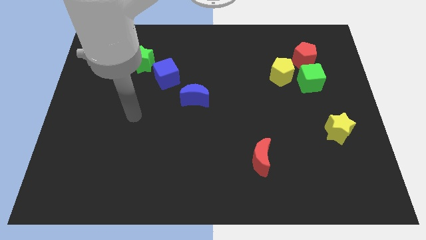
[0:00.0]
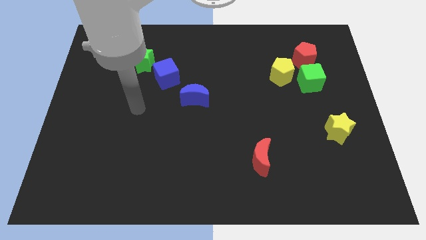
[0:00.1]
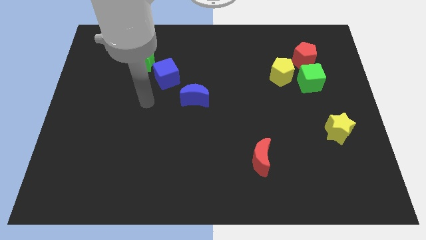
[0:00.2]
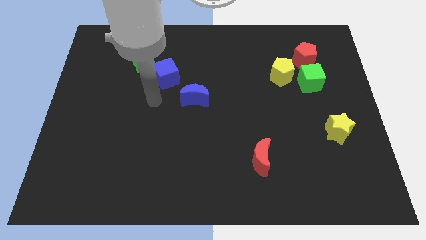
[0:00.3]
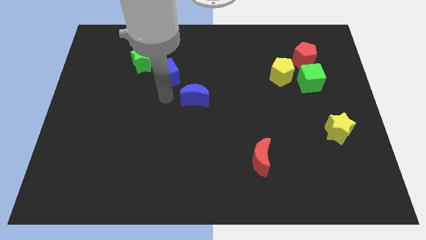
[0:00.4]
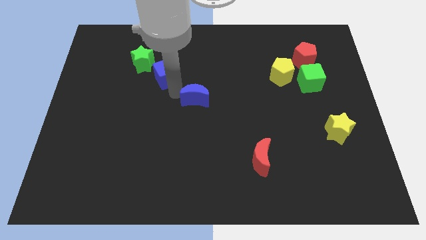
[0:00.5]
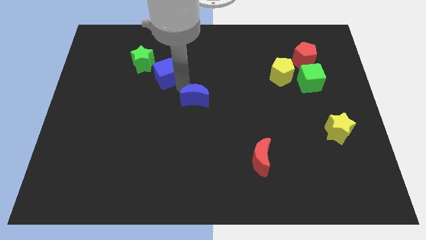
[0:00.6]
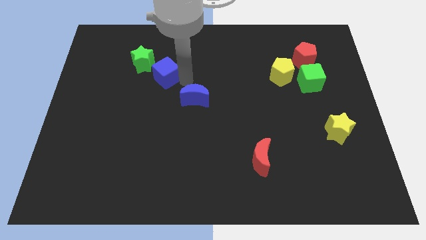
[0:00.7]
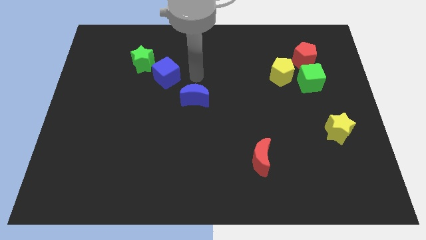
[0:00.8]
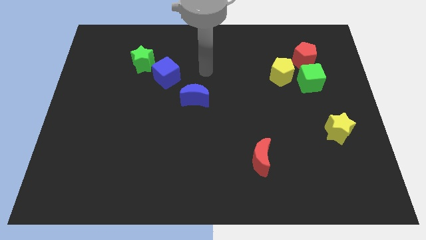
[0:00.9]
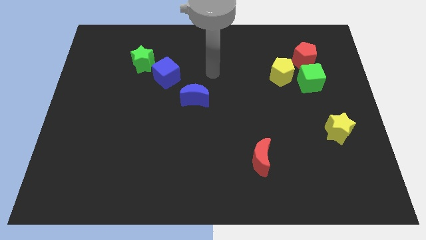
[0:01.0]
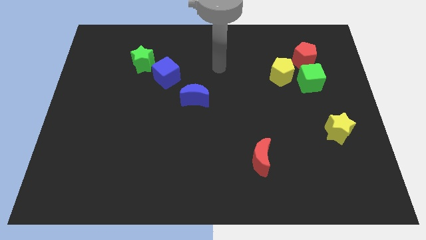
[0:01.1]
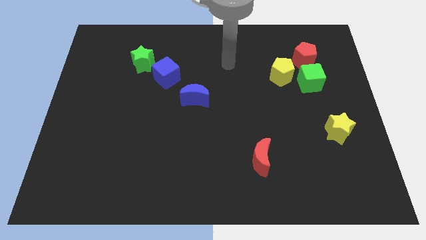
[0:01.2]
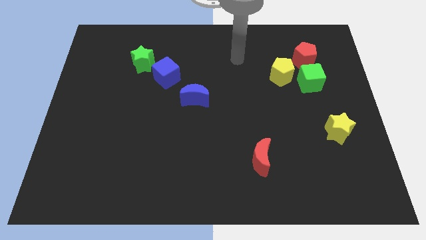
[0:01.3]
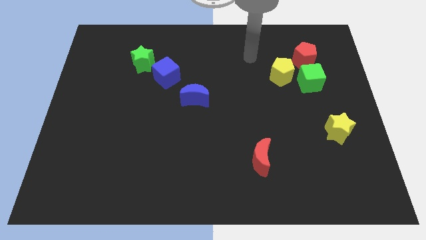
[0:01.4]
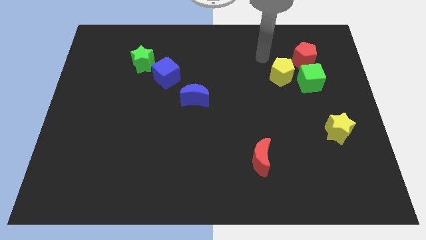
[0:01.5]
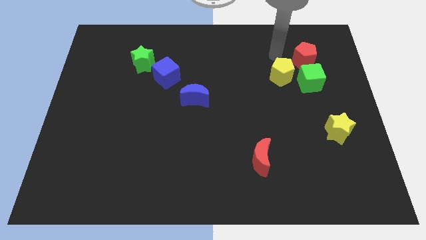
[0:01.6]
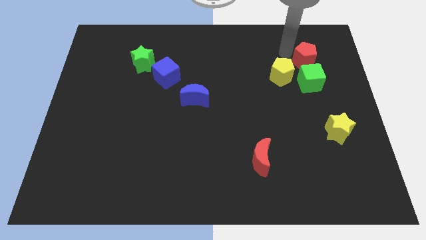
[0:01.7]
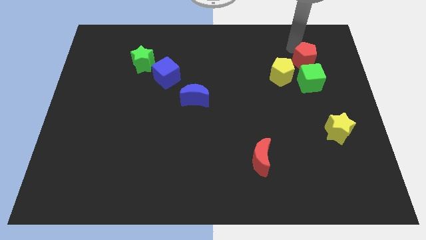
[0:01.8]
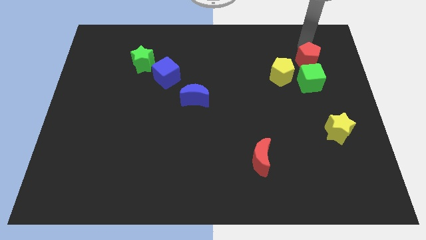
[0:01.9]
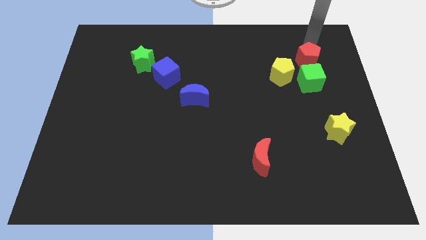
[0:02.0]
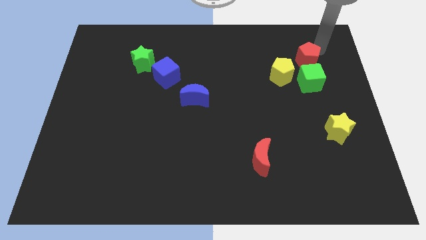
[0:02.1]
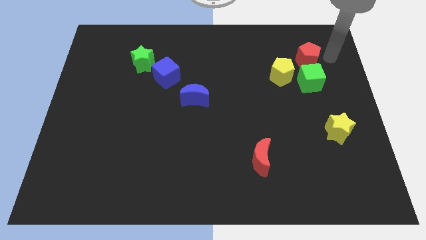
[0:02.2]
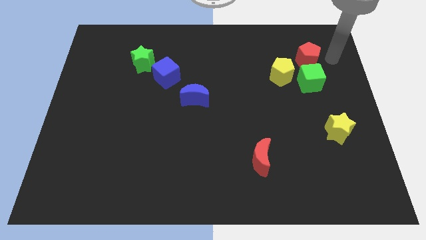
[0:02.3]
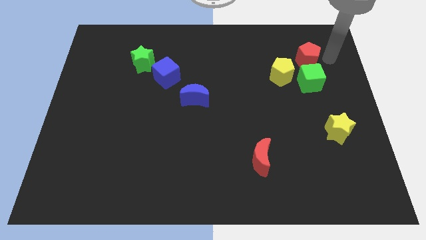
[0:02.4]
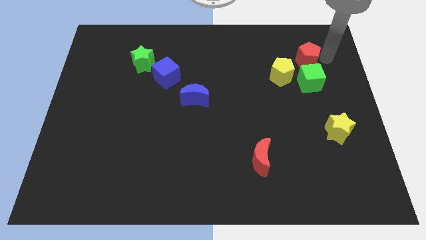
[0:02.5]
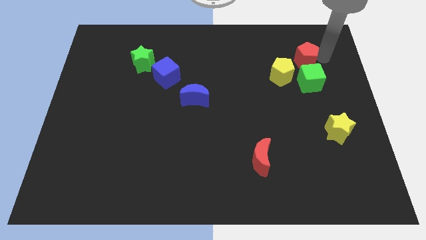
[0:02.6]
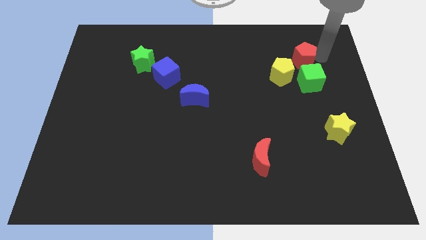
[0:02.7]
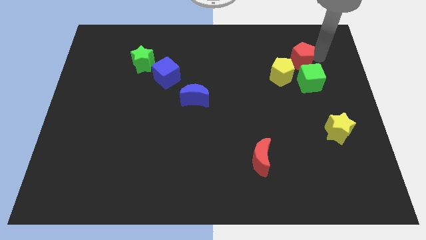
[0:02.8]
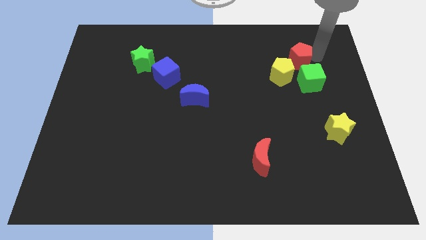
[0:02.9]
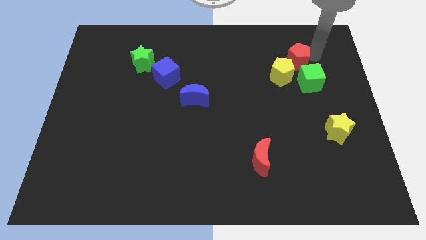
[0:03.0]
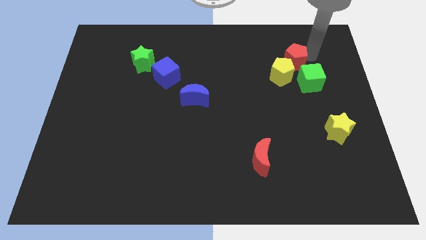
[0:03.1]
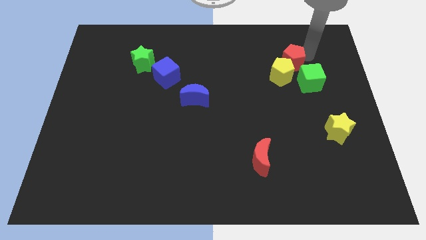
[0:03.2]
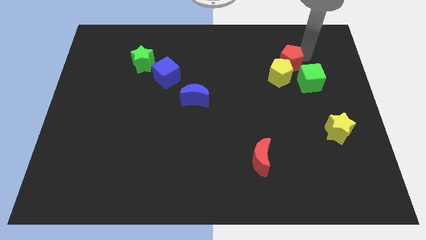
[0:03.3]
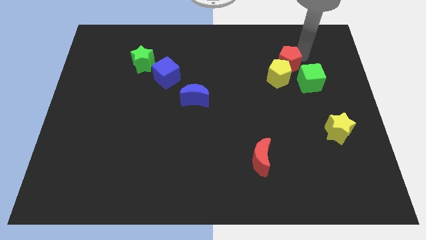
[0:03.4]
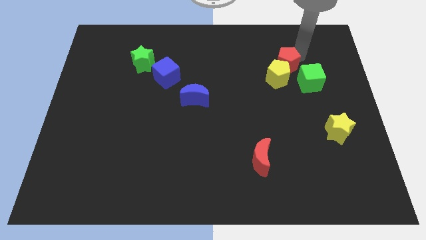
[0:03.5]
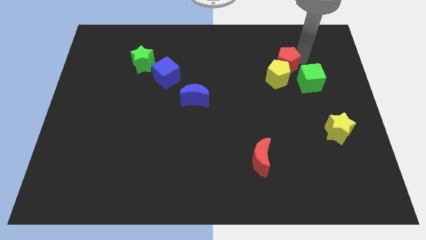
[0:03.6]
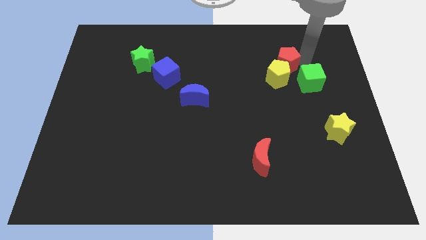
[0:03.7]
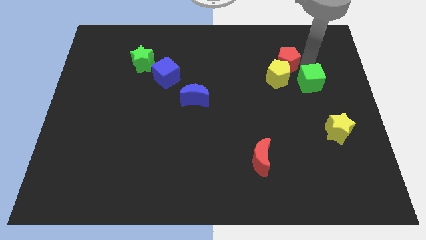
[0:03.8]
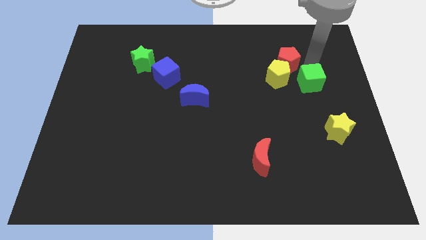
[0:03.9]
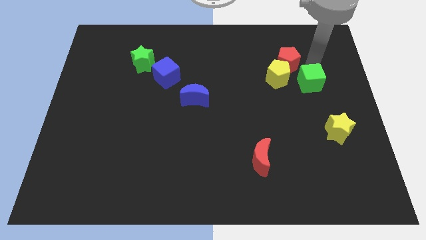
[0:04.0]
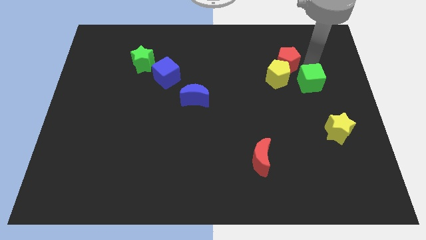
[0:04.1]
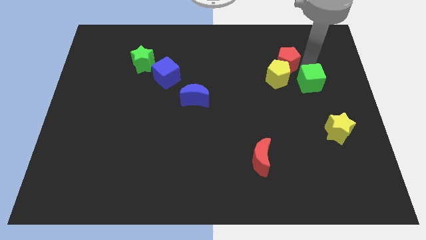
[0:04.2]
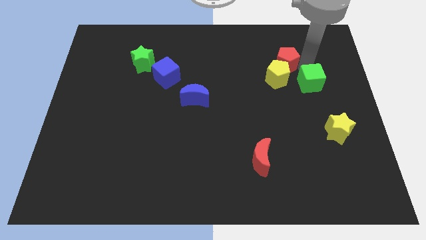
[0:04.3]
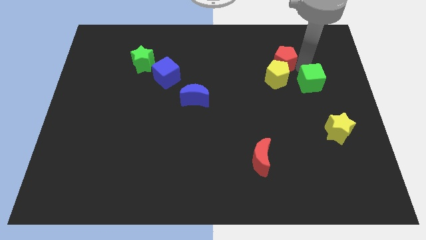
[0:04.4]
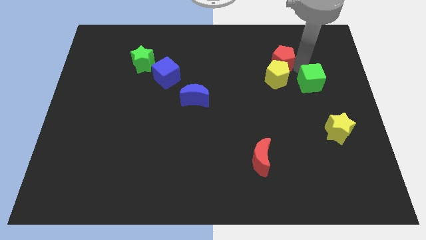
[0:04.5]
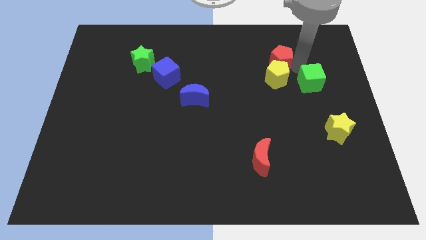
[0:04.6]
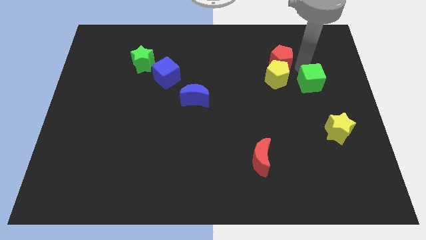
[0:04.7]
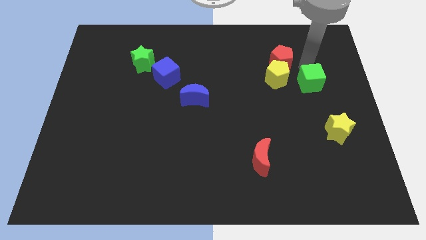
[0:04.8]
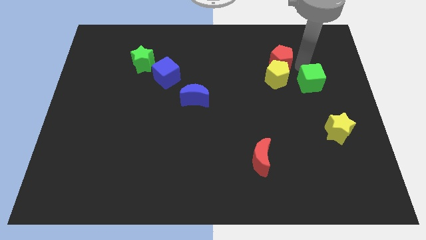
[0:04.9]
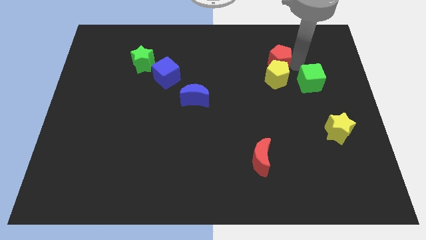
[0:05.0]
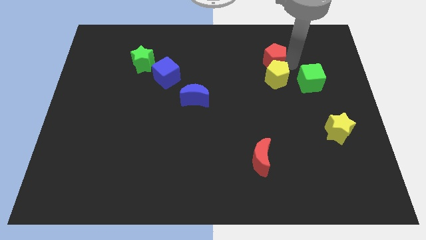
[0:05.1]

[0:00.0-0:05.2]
slightly move the red pentagon left

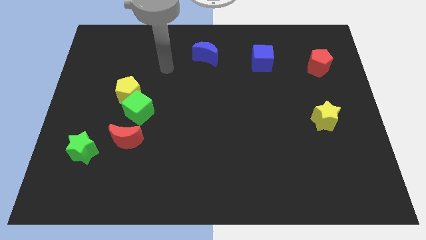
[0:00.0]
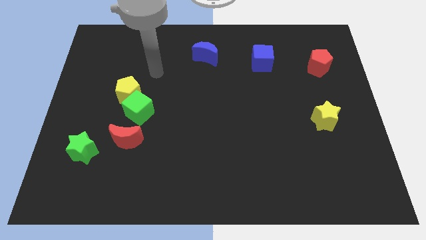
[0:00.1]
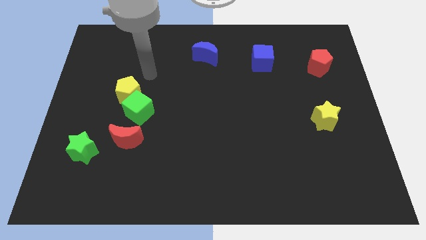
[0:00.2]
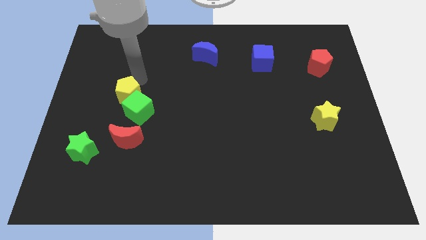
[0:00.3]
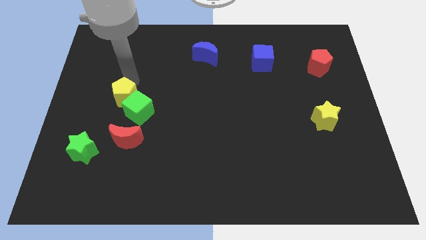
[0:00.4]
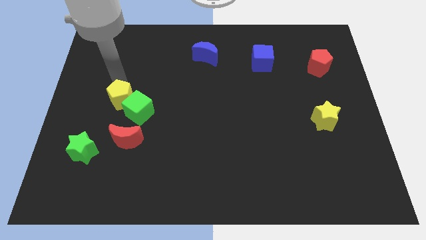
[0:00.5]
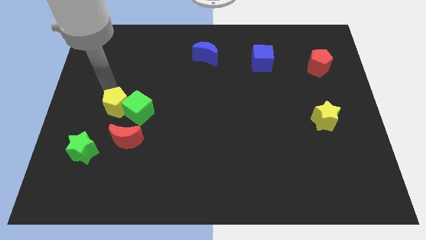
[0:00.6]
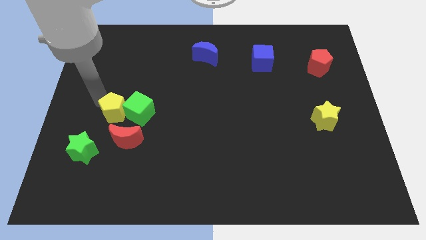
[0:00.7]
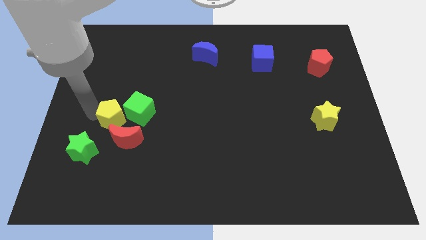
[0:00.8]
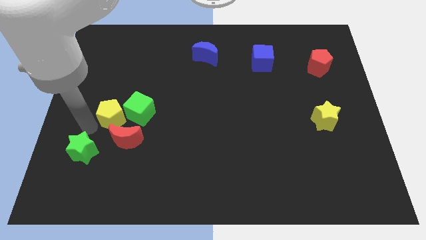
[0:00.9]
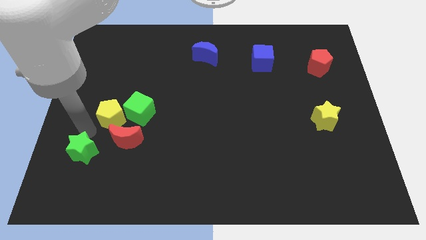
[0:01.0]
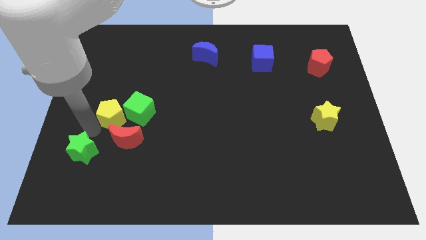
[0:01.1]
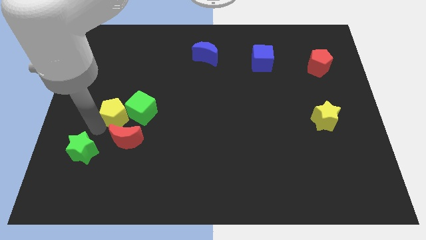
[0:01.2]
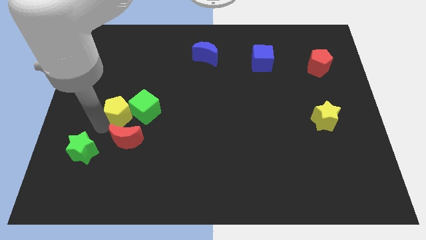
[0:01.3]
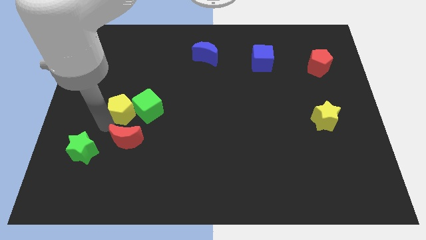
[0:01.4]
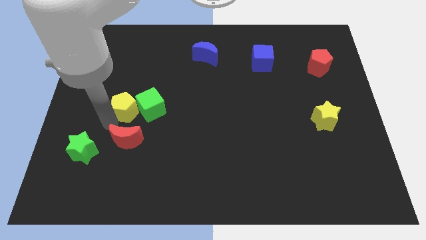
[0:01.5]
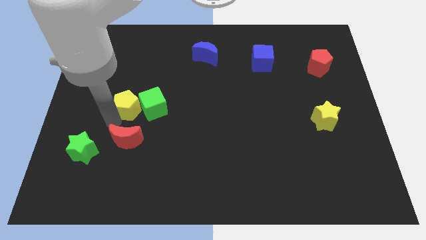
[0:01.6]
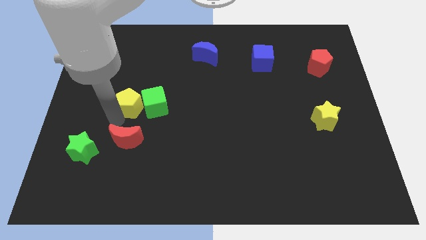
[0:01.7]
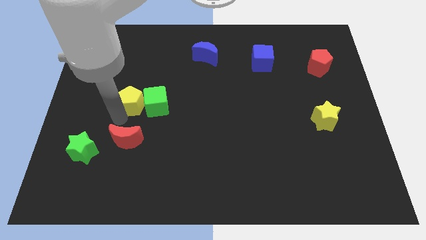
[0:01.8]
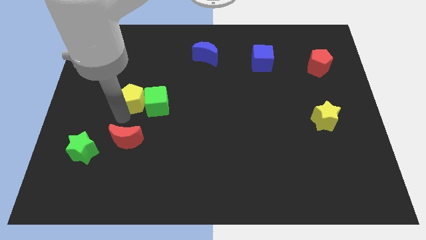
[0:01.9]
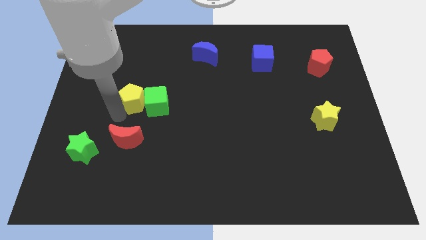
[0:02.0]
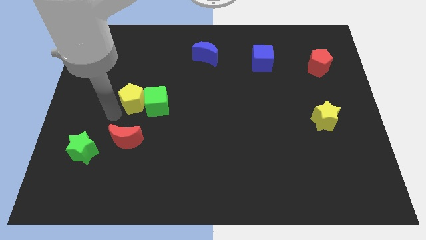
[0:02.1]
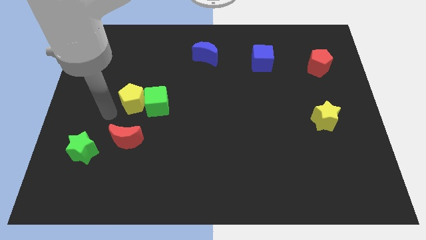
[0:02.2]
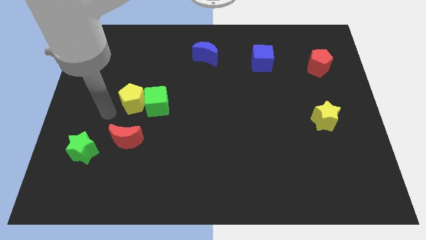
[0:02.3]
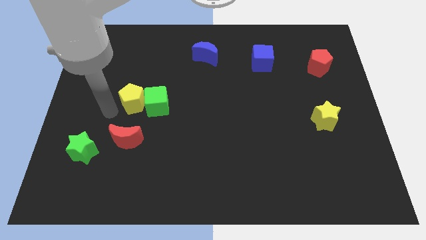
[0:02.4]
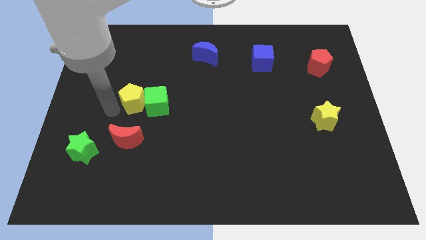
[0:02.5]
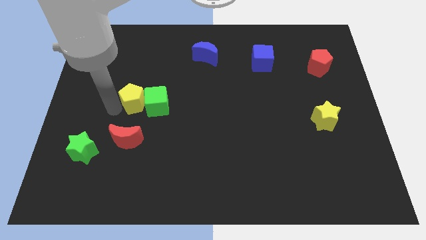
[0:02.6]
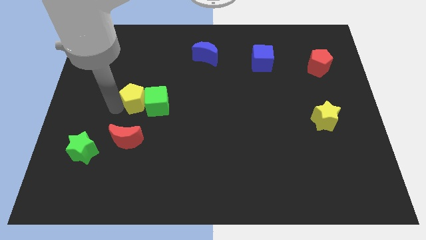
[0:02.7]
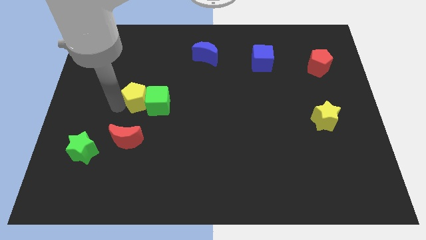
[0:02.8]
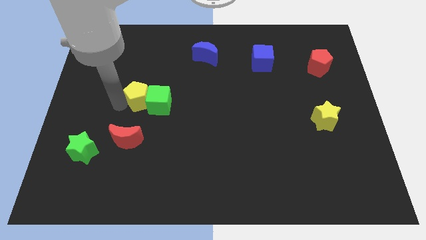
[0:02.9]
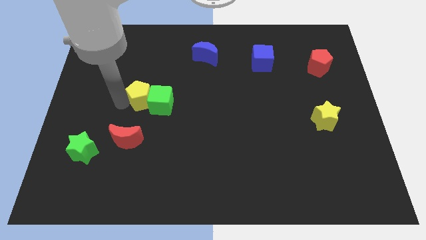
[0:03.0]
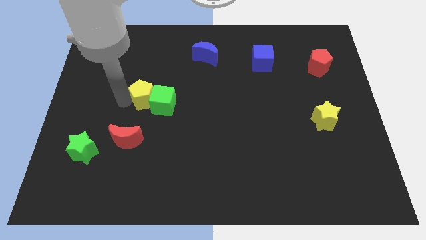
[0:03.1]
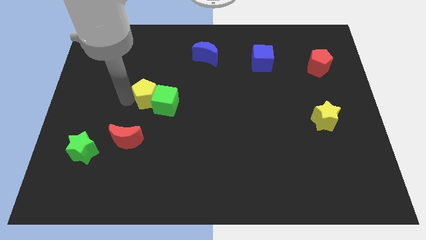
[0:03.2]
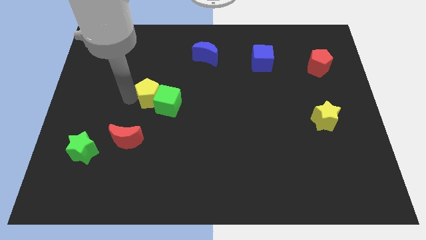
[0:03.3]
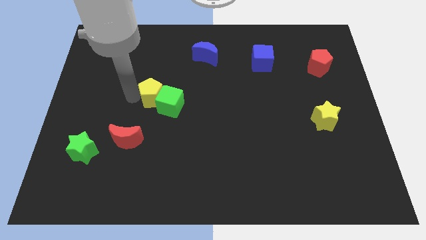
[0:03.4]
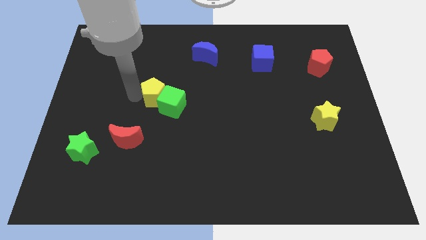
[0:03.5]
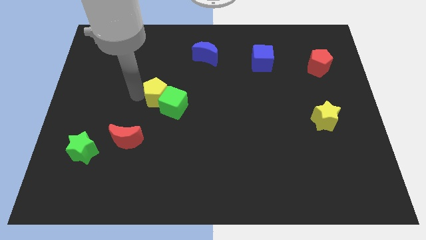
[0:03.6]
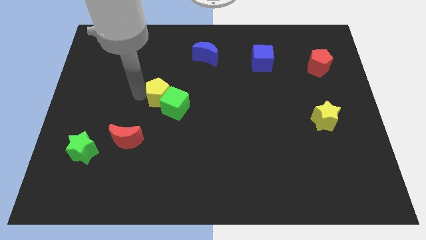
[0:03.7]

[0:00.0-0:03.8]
slide the yellow pentagon somewhat to the right
